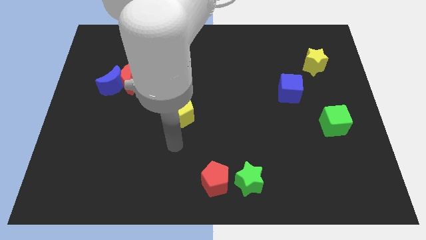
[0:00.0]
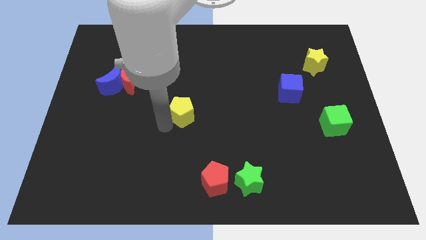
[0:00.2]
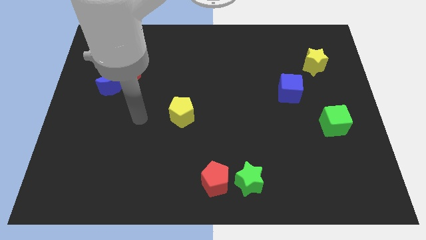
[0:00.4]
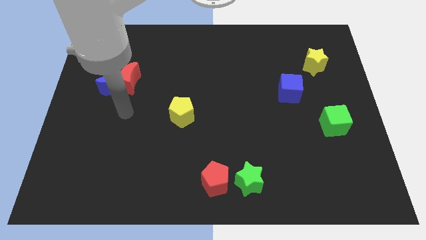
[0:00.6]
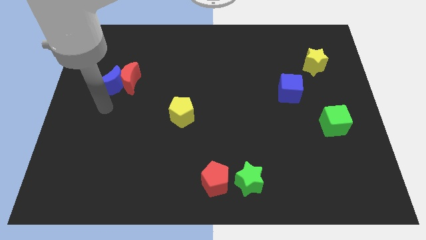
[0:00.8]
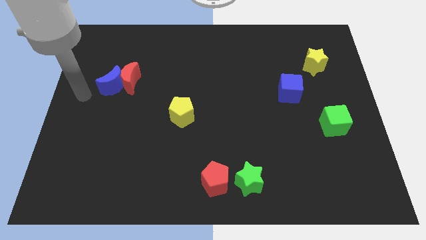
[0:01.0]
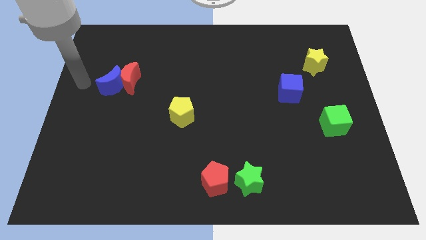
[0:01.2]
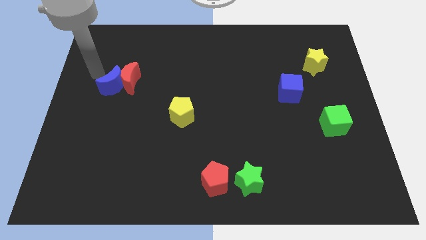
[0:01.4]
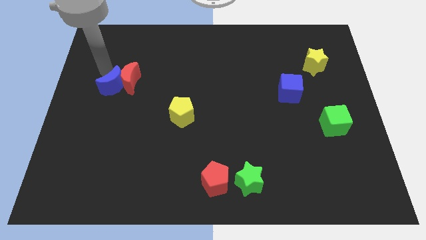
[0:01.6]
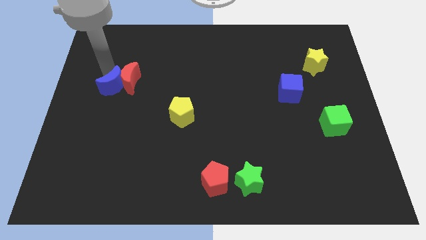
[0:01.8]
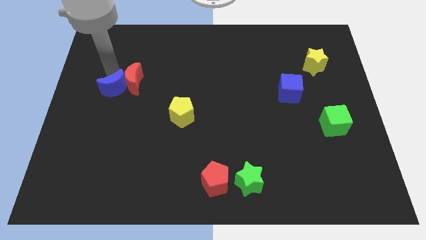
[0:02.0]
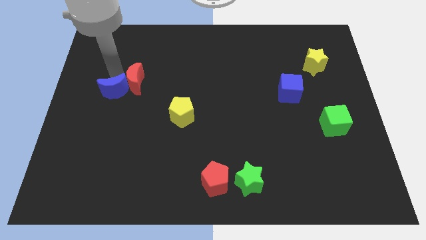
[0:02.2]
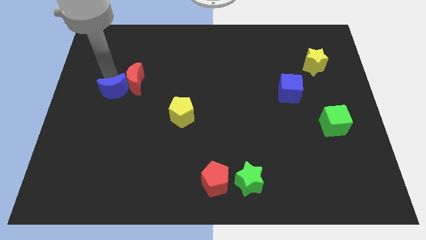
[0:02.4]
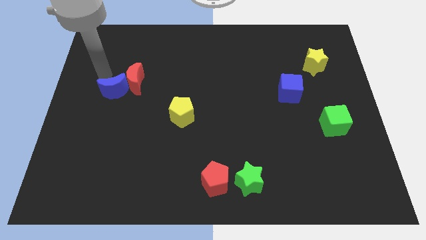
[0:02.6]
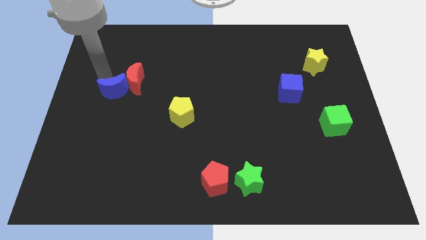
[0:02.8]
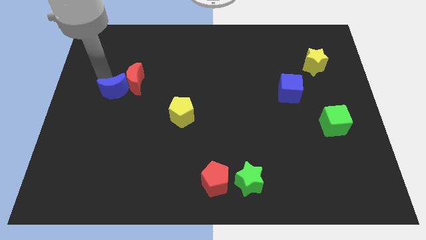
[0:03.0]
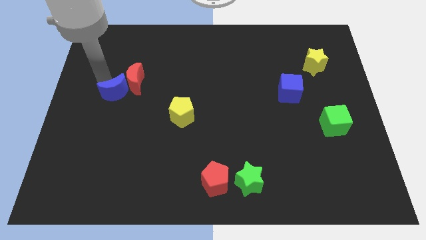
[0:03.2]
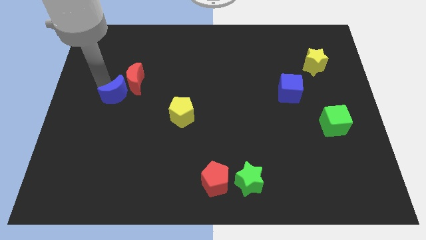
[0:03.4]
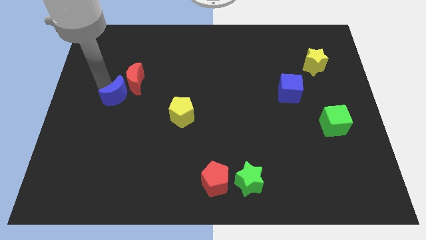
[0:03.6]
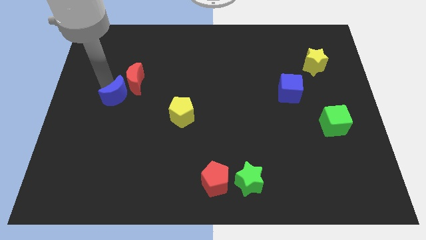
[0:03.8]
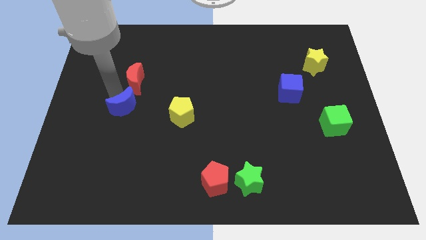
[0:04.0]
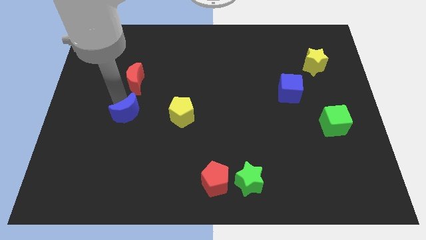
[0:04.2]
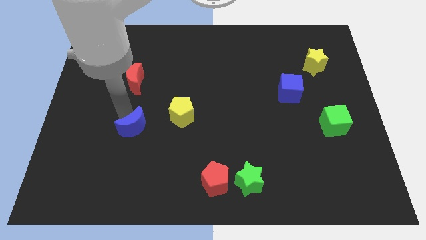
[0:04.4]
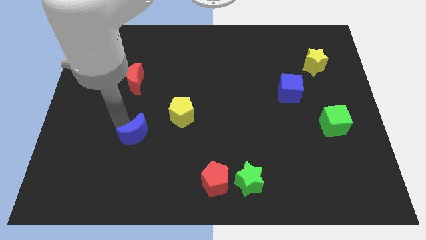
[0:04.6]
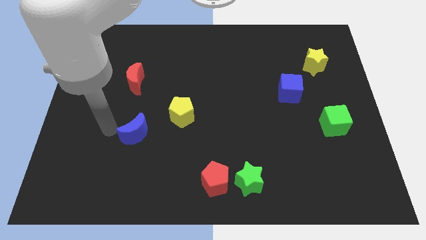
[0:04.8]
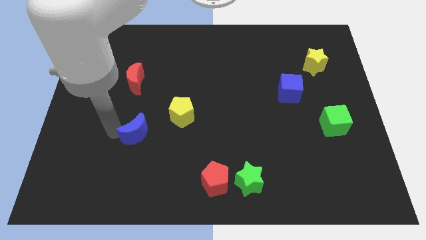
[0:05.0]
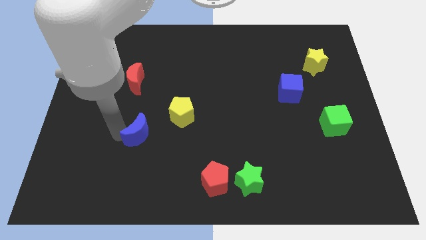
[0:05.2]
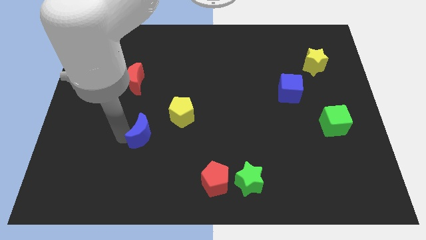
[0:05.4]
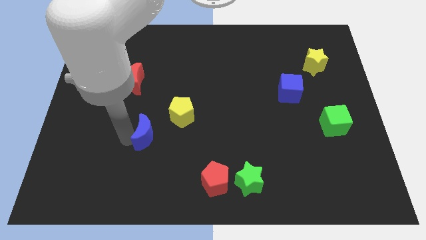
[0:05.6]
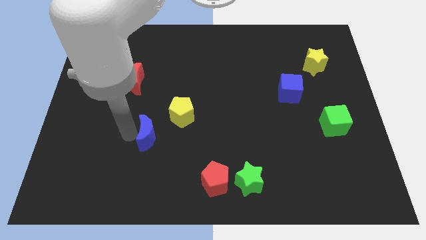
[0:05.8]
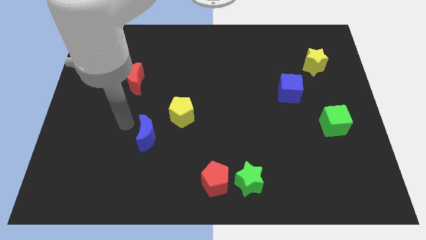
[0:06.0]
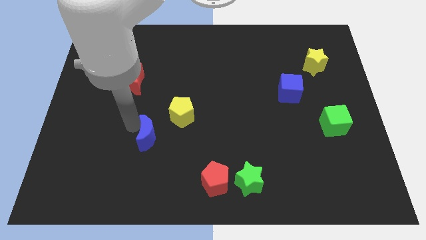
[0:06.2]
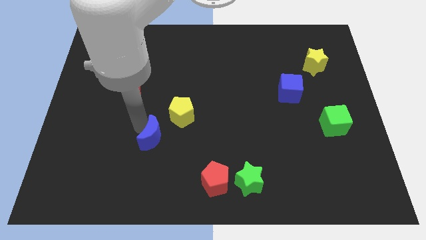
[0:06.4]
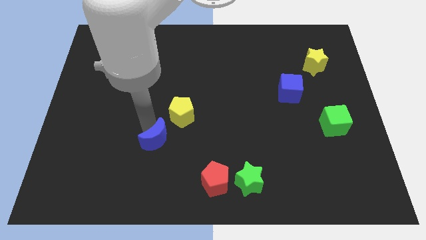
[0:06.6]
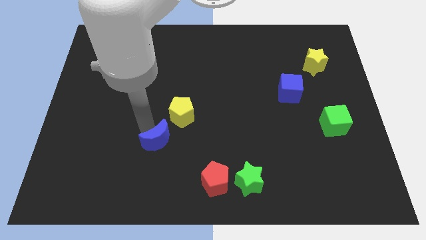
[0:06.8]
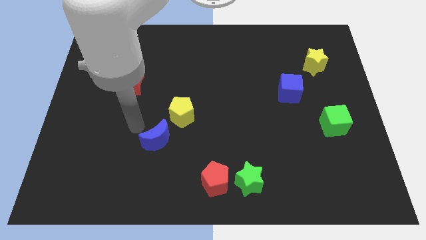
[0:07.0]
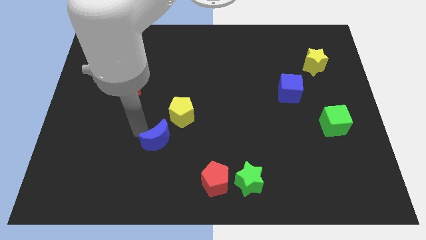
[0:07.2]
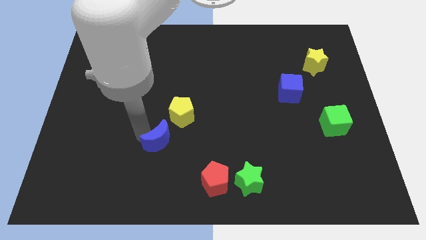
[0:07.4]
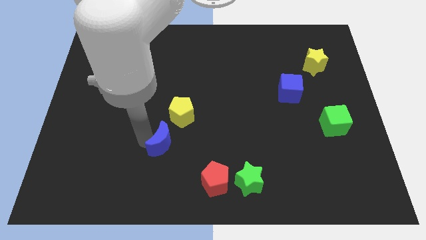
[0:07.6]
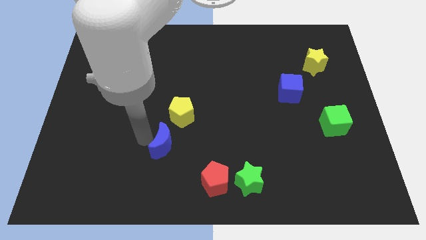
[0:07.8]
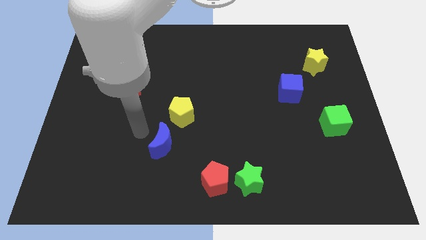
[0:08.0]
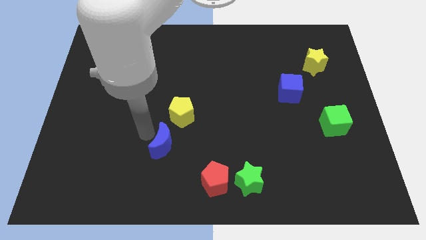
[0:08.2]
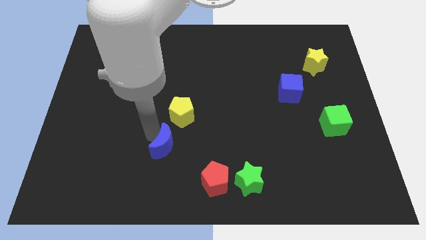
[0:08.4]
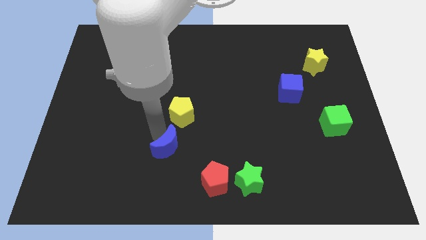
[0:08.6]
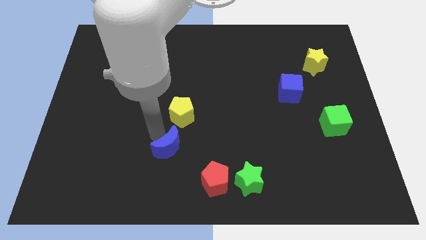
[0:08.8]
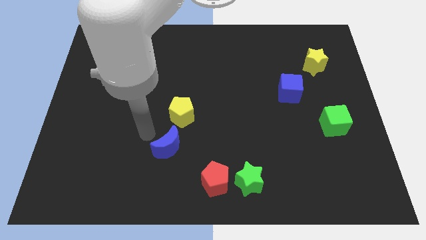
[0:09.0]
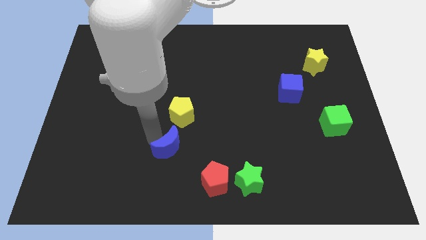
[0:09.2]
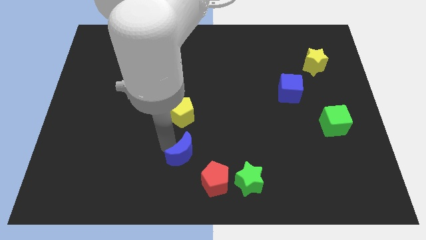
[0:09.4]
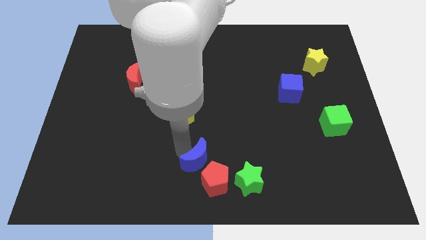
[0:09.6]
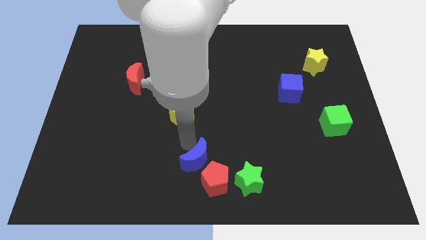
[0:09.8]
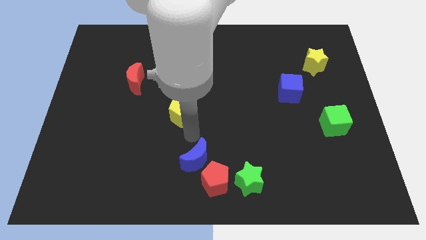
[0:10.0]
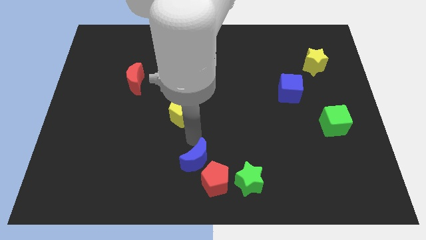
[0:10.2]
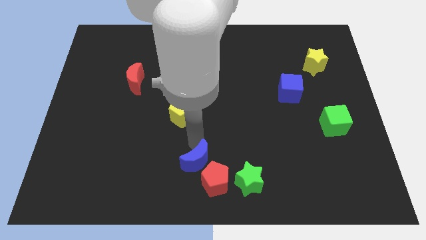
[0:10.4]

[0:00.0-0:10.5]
put the blue moon next to the red pentagon

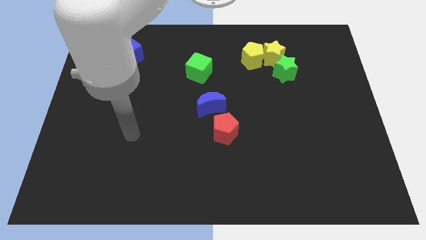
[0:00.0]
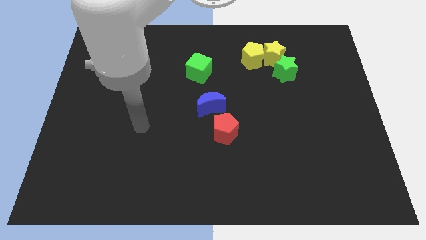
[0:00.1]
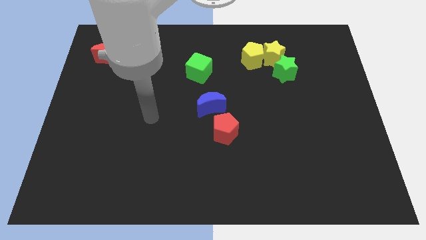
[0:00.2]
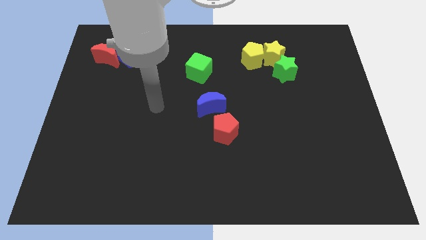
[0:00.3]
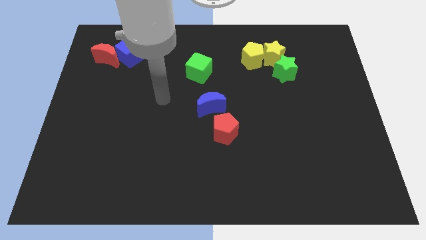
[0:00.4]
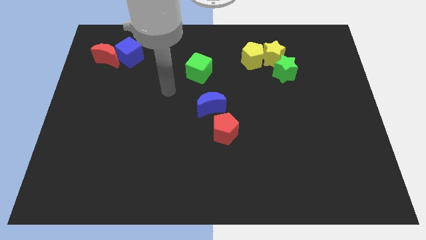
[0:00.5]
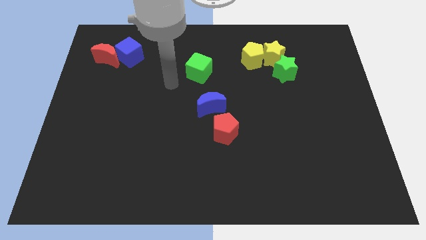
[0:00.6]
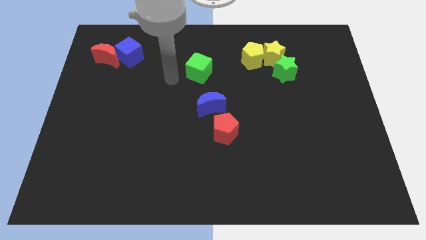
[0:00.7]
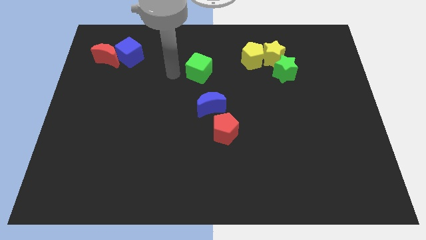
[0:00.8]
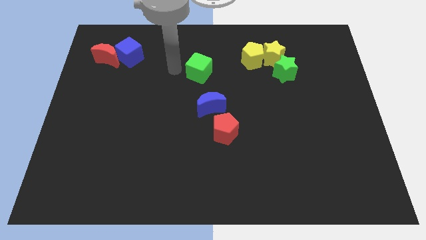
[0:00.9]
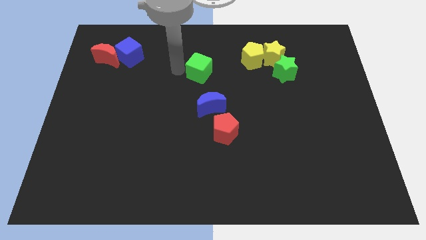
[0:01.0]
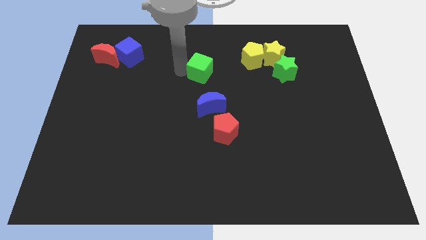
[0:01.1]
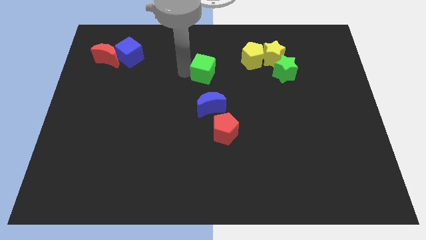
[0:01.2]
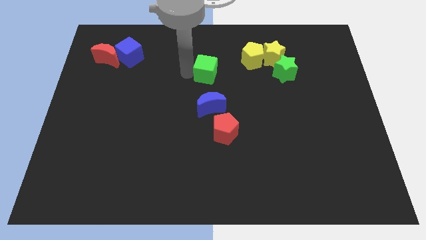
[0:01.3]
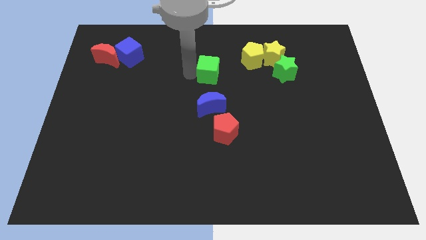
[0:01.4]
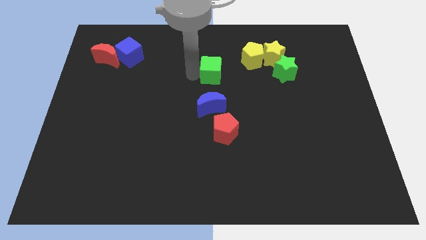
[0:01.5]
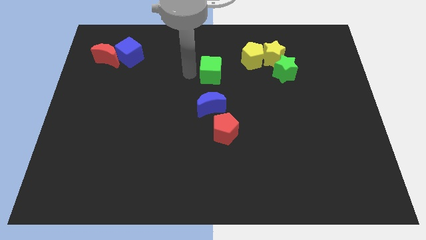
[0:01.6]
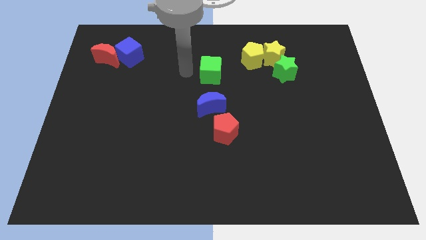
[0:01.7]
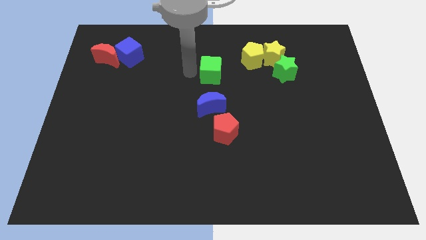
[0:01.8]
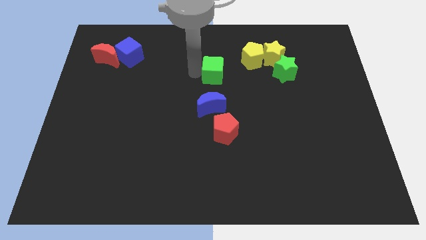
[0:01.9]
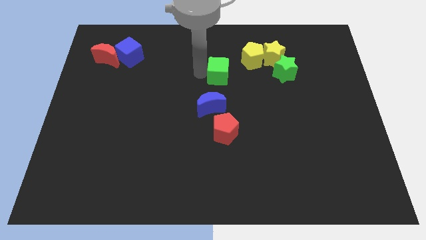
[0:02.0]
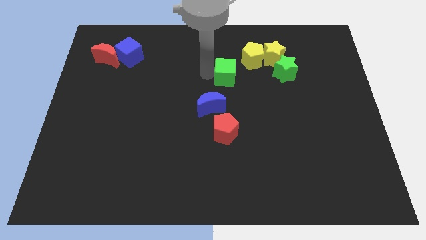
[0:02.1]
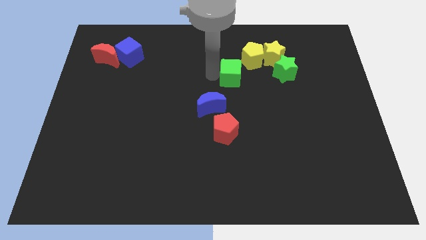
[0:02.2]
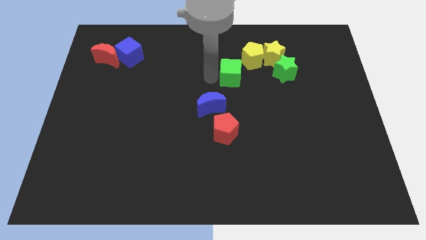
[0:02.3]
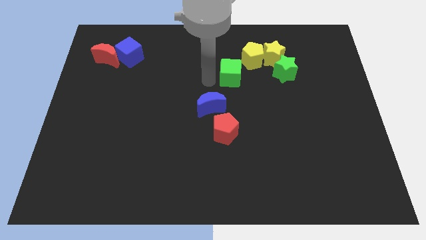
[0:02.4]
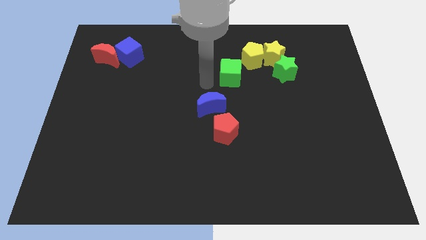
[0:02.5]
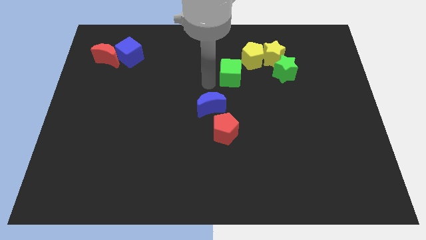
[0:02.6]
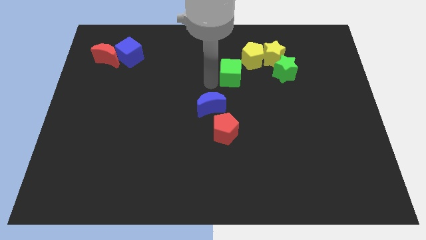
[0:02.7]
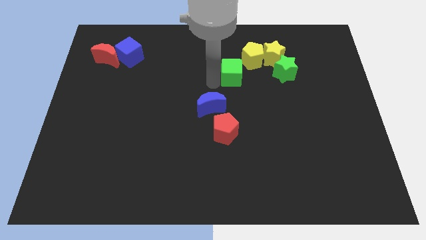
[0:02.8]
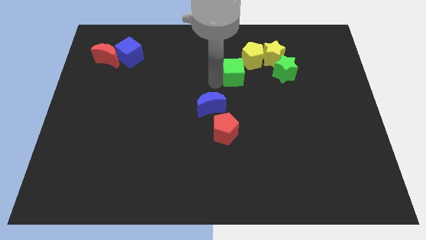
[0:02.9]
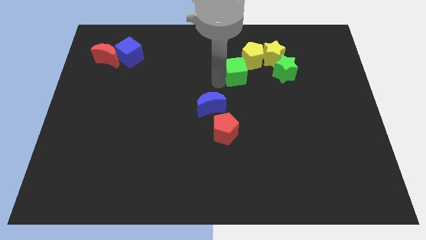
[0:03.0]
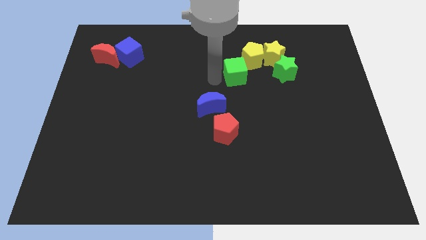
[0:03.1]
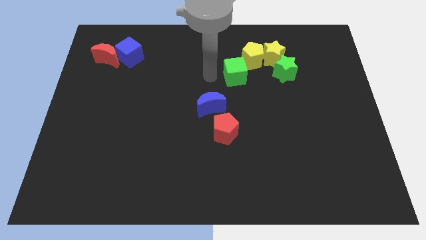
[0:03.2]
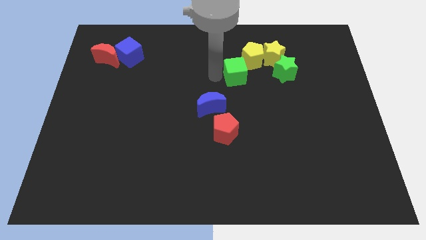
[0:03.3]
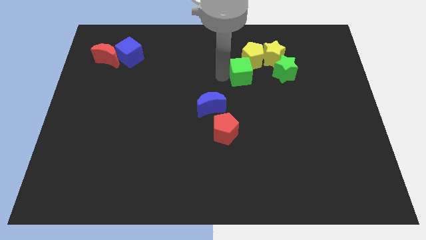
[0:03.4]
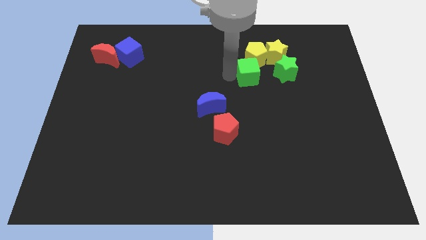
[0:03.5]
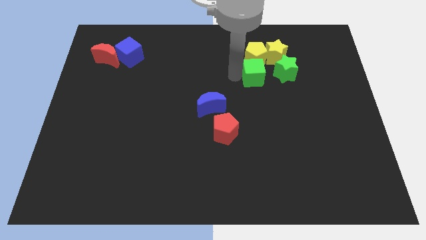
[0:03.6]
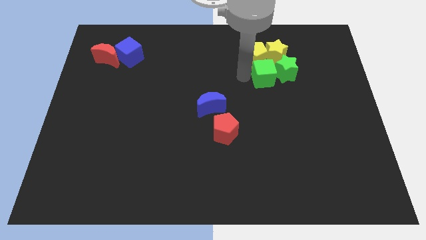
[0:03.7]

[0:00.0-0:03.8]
push the green cube close to the green star
